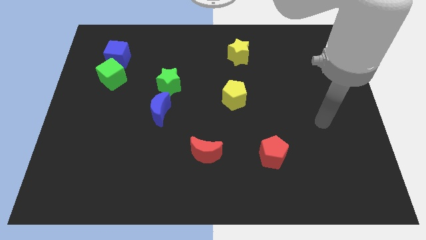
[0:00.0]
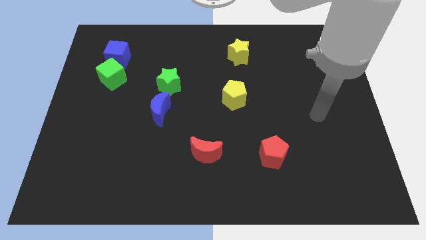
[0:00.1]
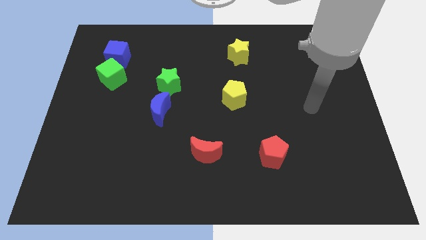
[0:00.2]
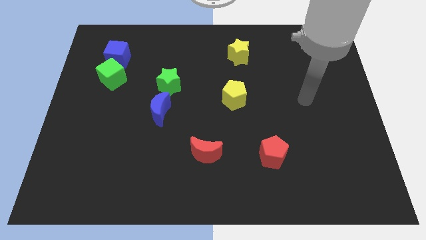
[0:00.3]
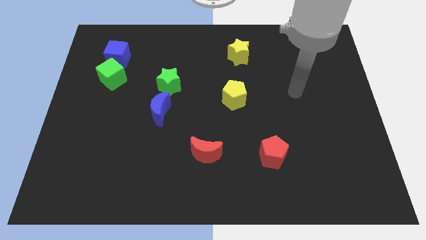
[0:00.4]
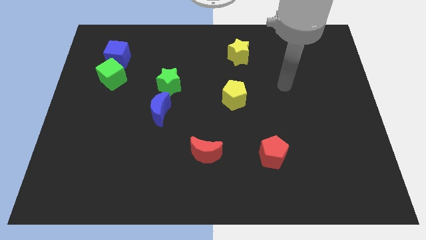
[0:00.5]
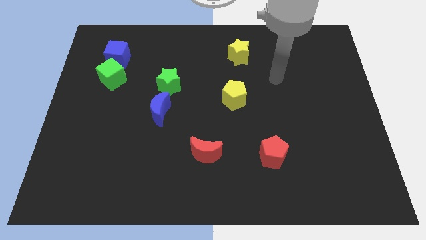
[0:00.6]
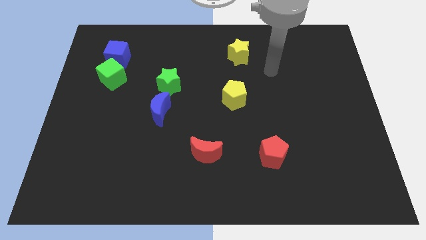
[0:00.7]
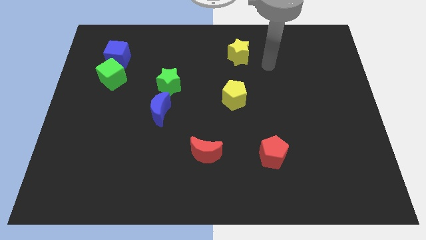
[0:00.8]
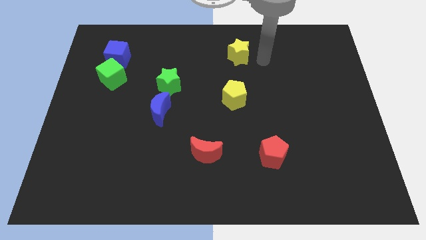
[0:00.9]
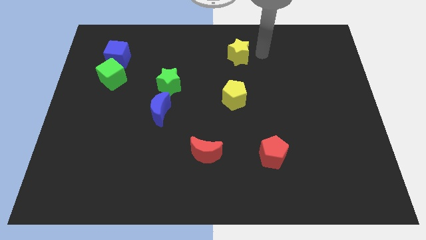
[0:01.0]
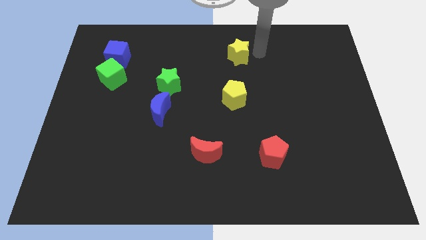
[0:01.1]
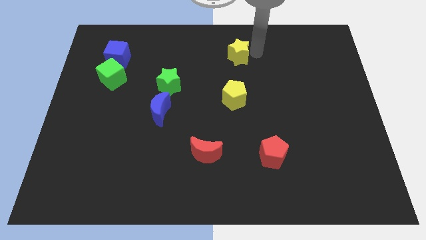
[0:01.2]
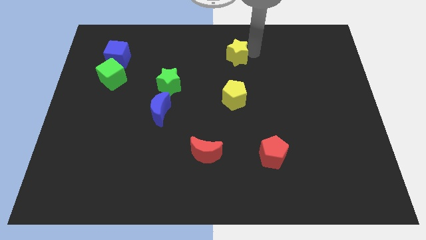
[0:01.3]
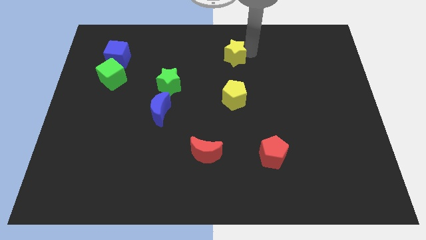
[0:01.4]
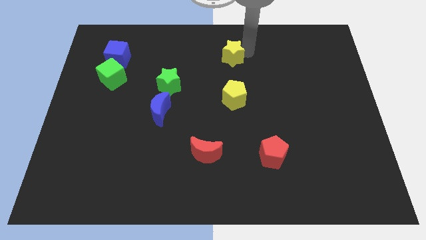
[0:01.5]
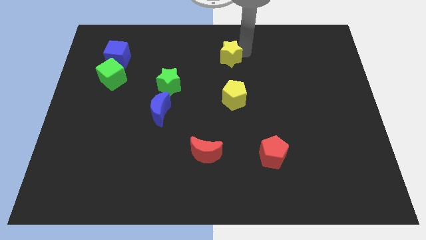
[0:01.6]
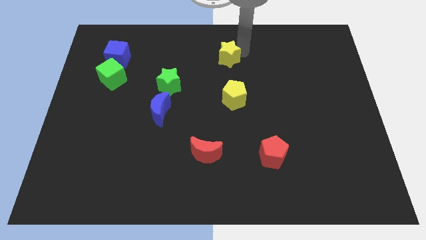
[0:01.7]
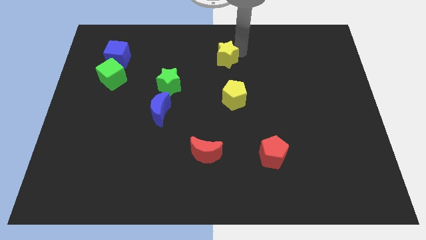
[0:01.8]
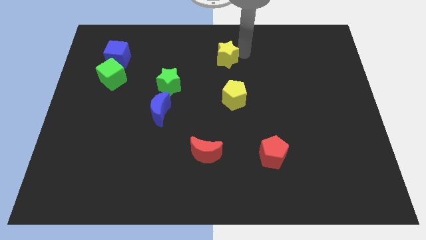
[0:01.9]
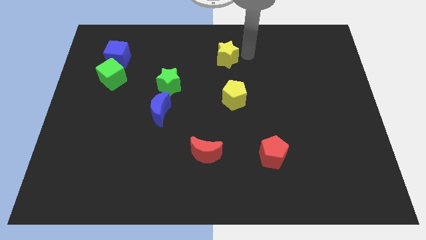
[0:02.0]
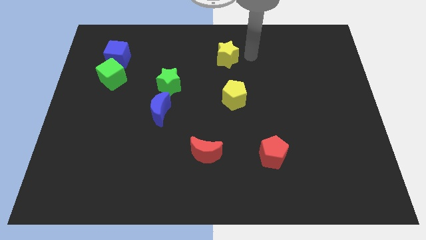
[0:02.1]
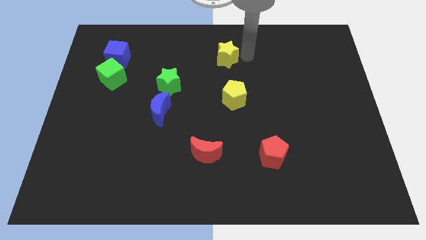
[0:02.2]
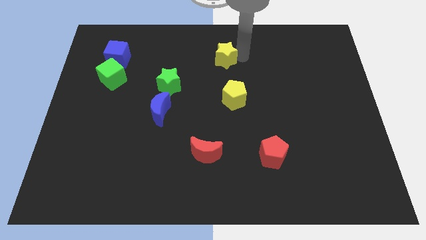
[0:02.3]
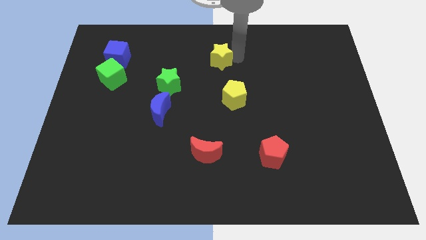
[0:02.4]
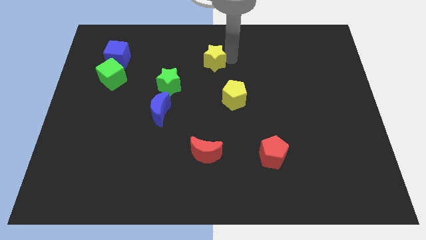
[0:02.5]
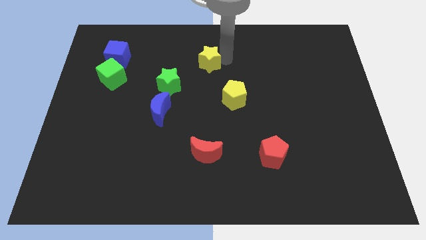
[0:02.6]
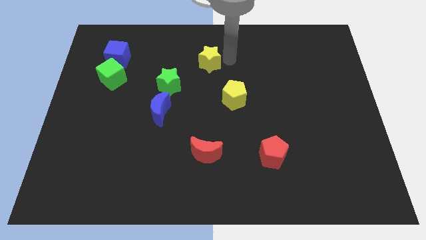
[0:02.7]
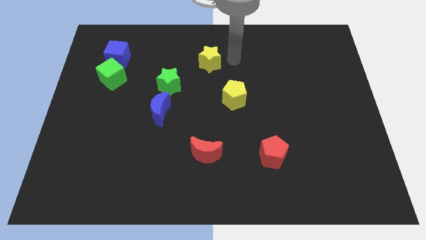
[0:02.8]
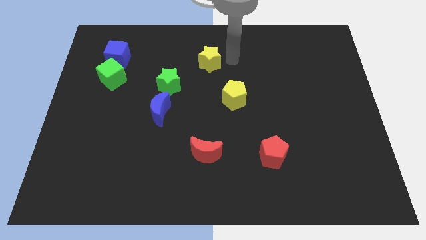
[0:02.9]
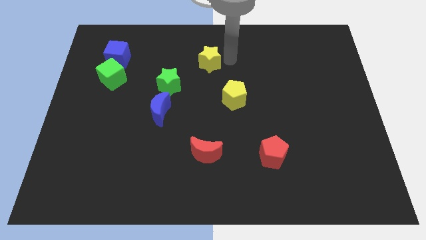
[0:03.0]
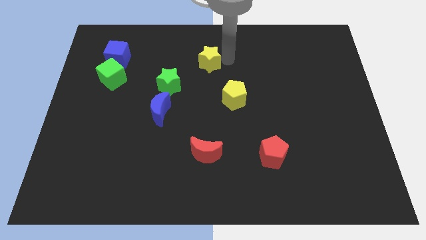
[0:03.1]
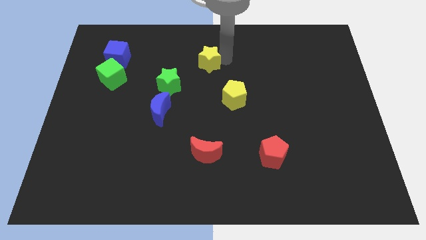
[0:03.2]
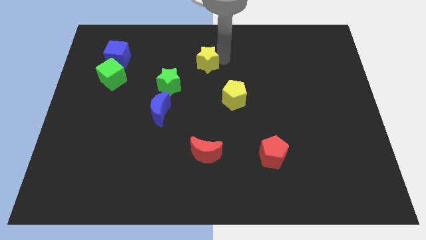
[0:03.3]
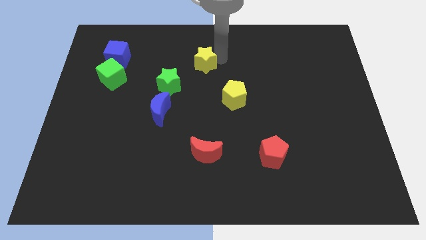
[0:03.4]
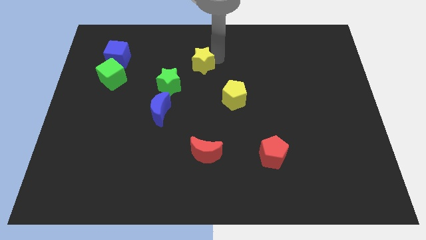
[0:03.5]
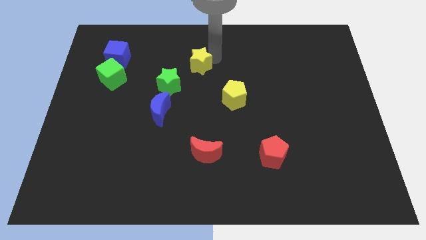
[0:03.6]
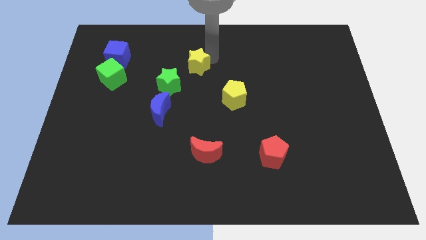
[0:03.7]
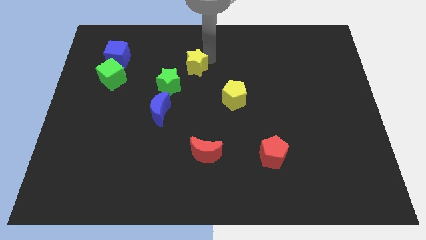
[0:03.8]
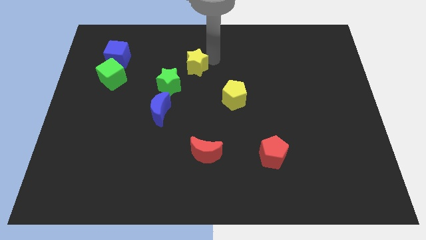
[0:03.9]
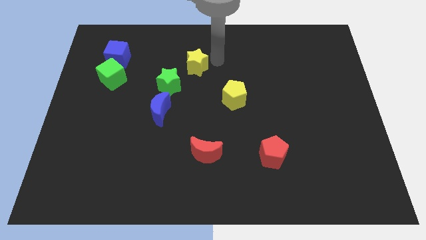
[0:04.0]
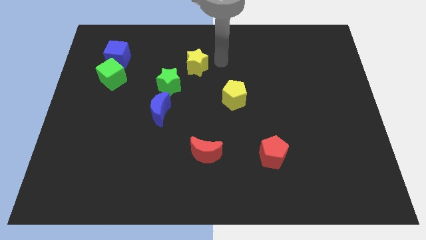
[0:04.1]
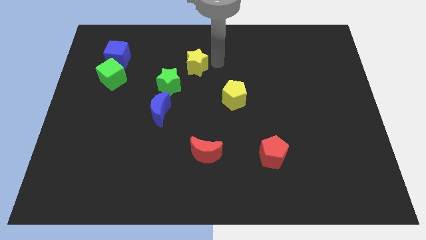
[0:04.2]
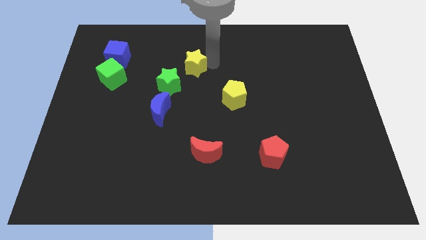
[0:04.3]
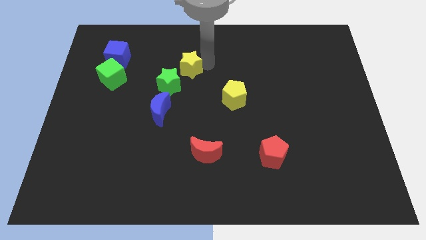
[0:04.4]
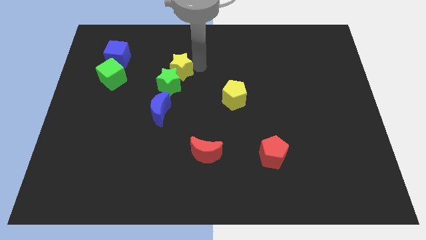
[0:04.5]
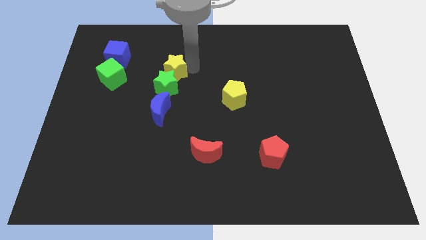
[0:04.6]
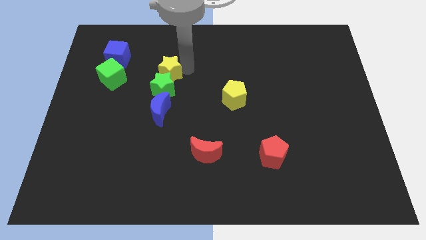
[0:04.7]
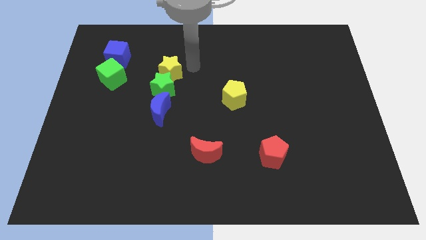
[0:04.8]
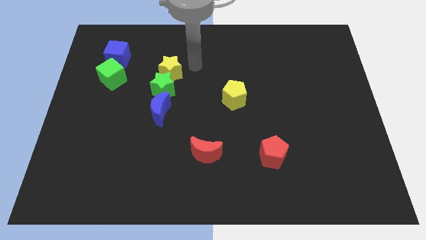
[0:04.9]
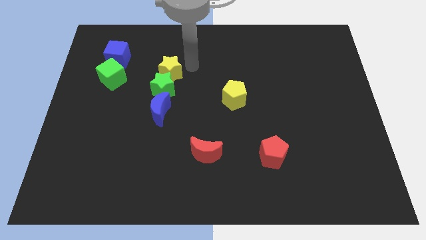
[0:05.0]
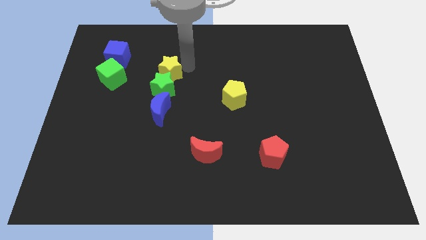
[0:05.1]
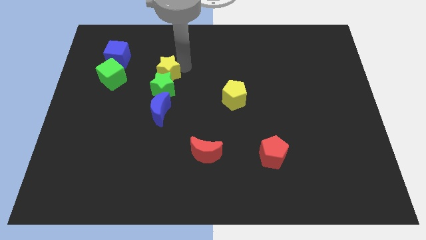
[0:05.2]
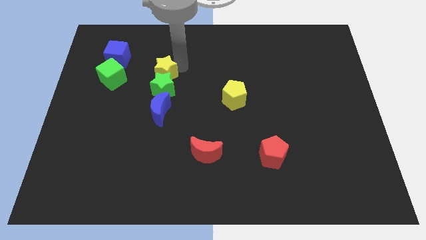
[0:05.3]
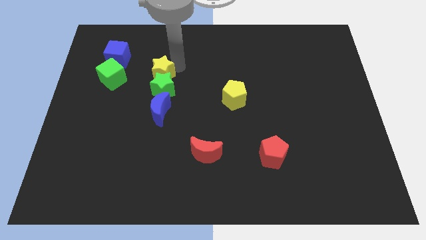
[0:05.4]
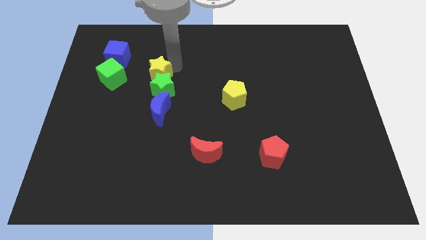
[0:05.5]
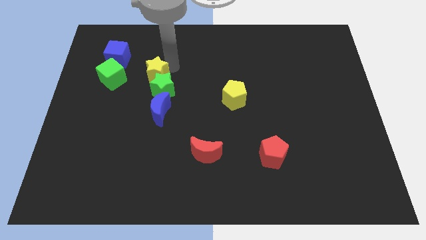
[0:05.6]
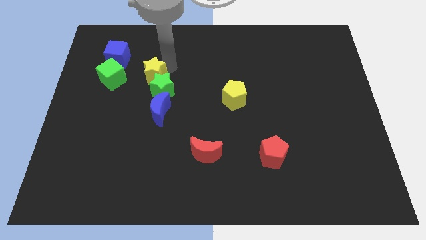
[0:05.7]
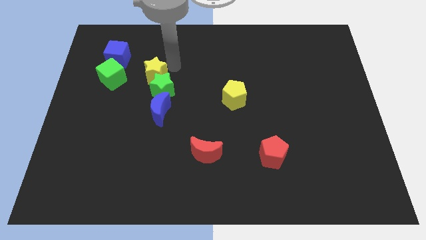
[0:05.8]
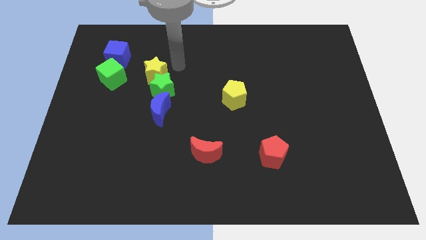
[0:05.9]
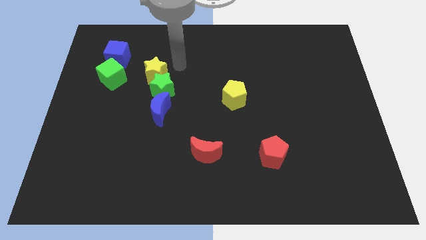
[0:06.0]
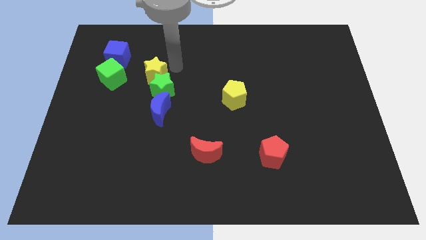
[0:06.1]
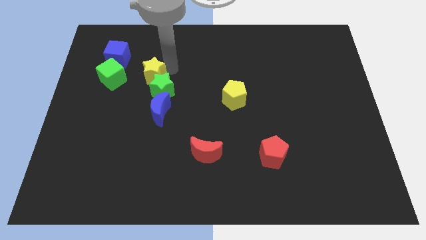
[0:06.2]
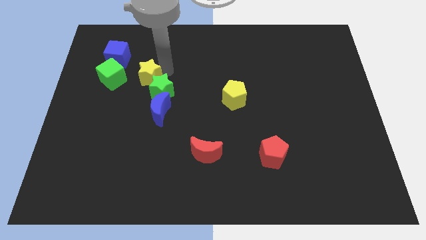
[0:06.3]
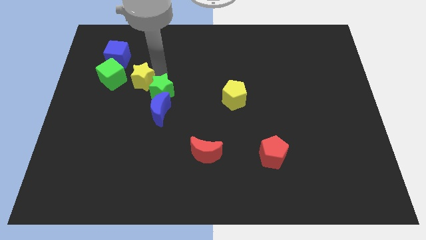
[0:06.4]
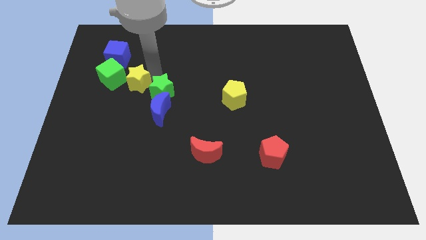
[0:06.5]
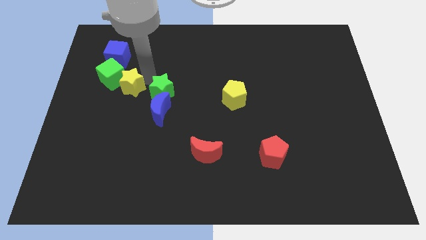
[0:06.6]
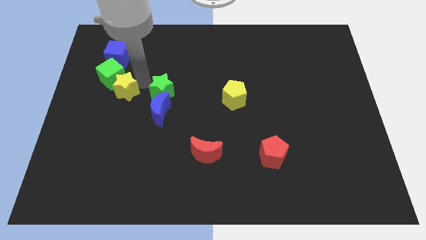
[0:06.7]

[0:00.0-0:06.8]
put the yellow star below the blue cube

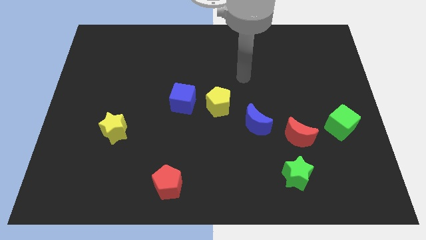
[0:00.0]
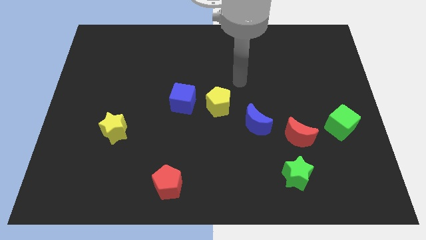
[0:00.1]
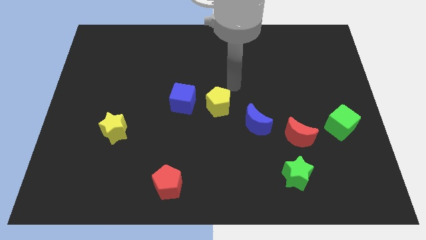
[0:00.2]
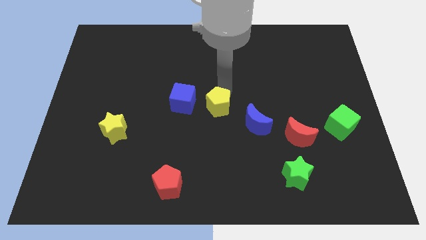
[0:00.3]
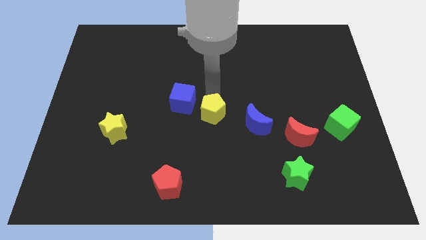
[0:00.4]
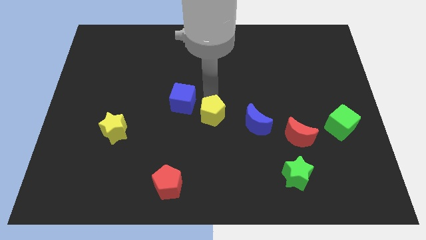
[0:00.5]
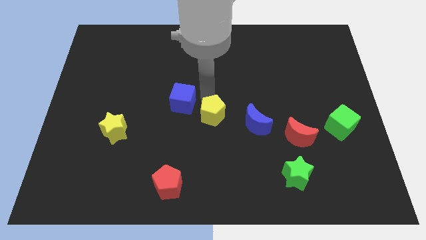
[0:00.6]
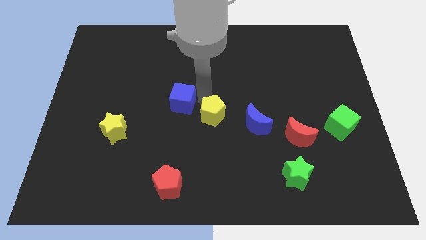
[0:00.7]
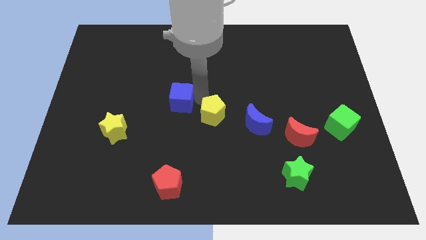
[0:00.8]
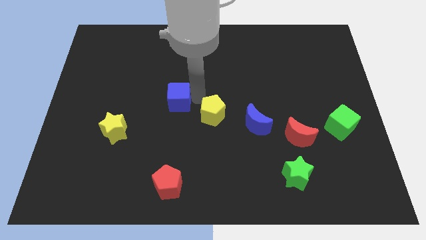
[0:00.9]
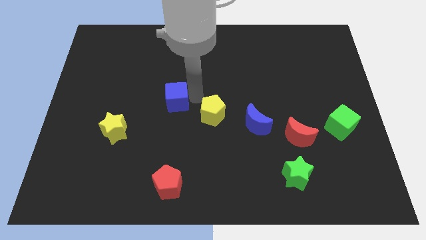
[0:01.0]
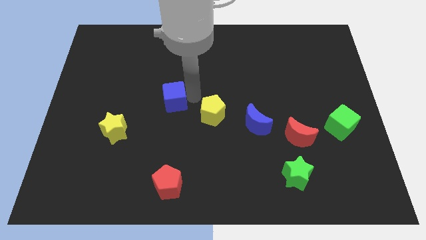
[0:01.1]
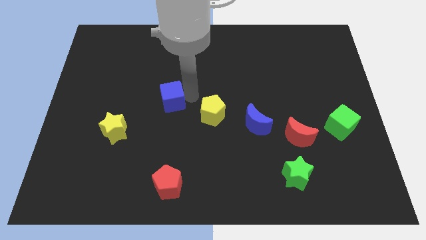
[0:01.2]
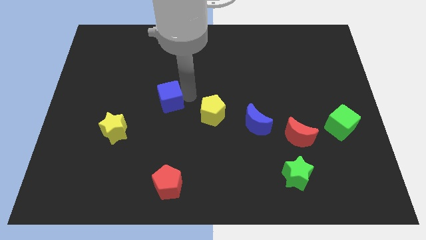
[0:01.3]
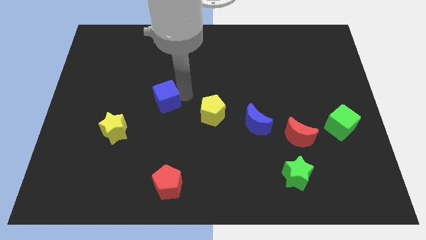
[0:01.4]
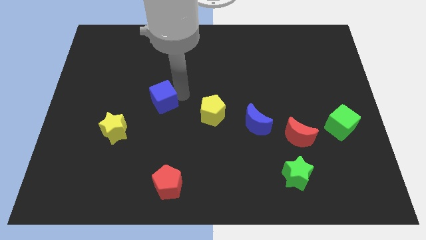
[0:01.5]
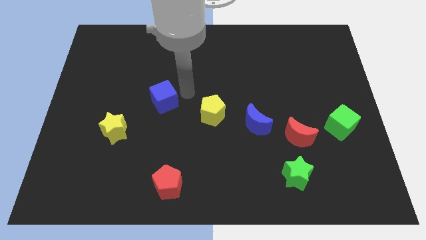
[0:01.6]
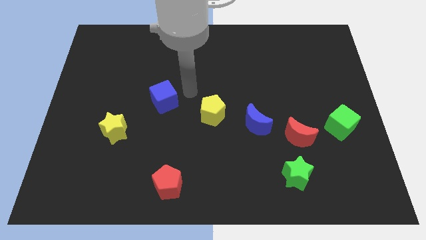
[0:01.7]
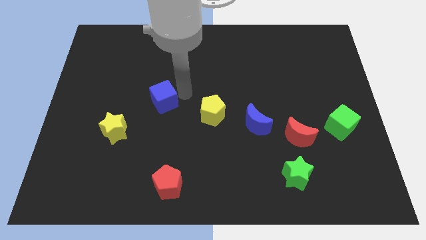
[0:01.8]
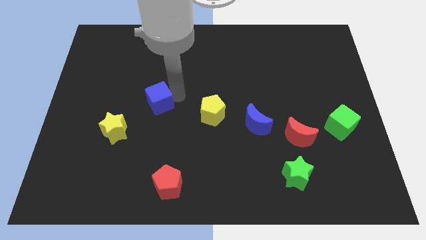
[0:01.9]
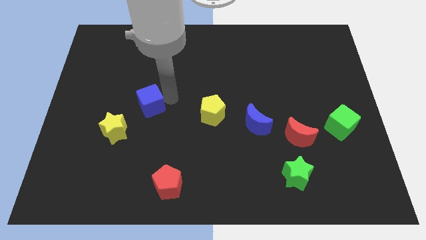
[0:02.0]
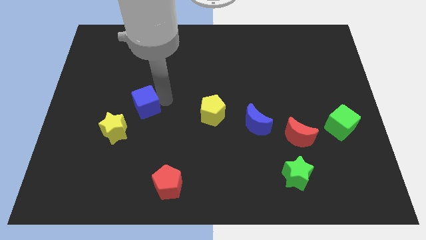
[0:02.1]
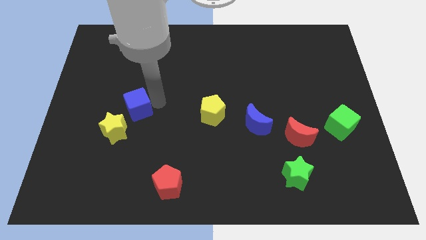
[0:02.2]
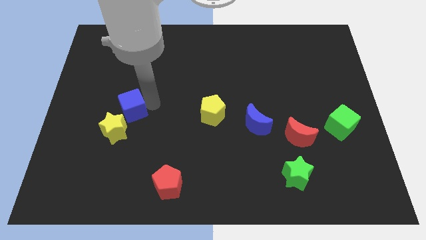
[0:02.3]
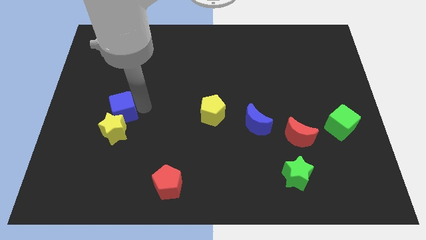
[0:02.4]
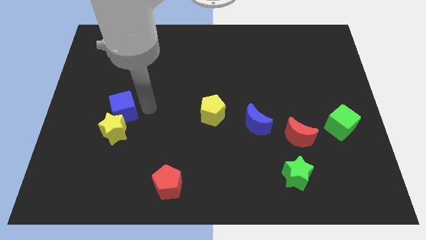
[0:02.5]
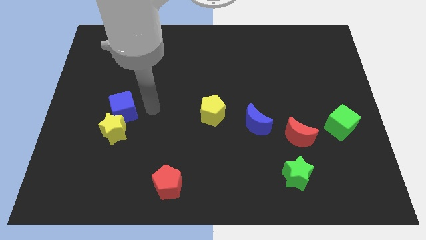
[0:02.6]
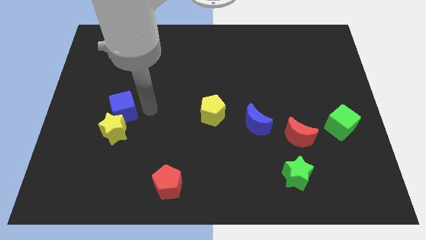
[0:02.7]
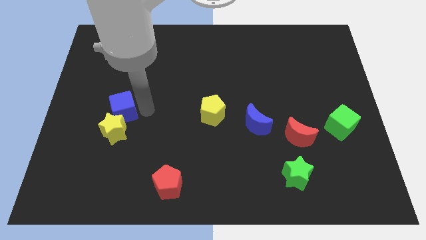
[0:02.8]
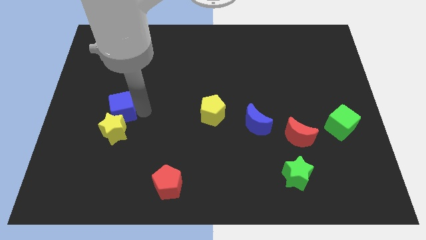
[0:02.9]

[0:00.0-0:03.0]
push the blue cube diagonally up and to the left of the yellow star
